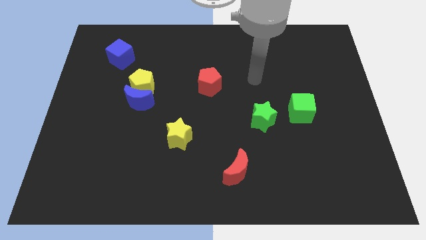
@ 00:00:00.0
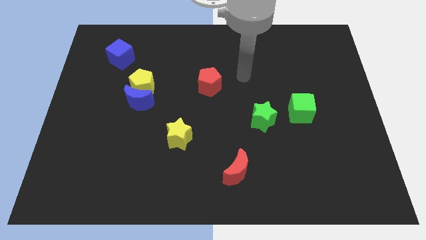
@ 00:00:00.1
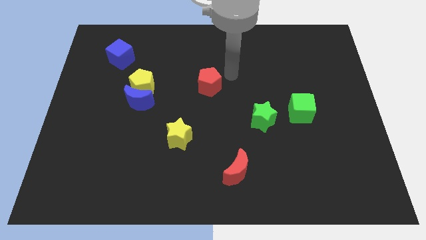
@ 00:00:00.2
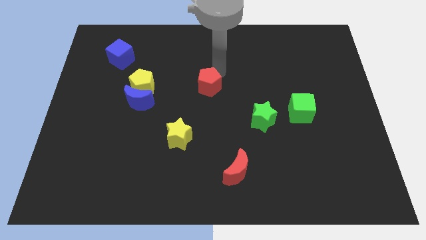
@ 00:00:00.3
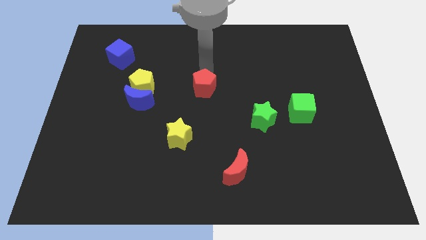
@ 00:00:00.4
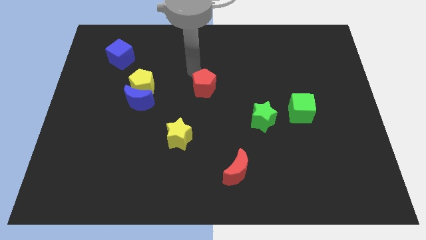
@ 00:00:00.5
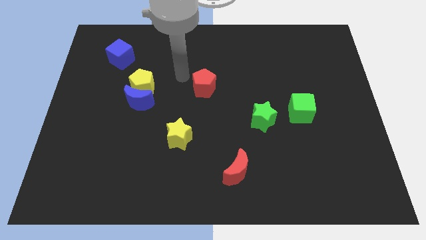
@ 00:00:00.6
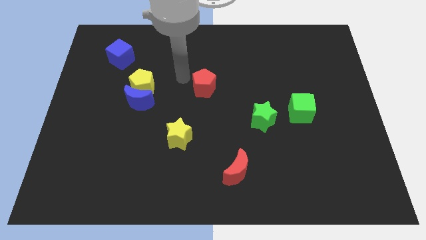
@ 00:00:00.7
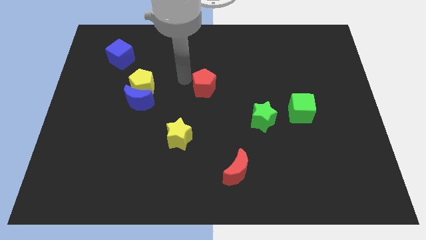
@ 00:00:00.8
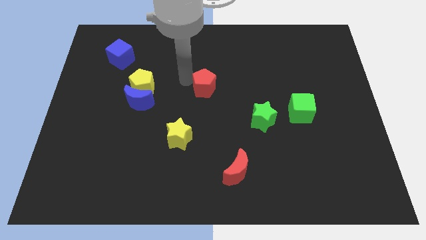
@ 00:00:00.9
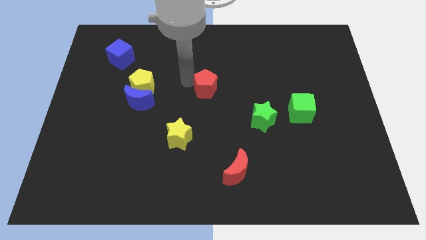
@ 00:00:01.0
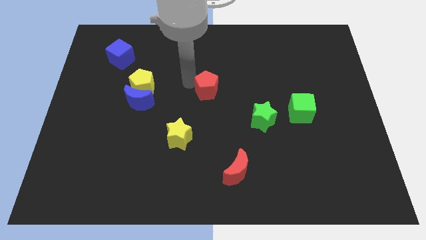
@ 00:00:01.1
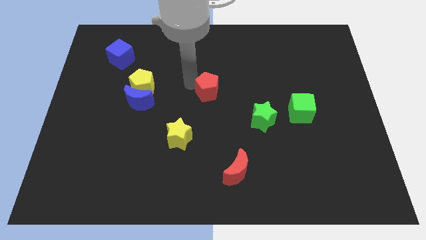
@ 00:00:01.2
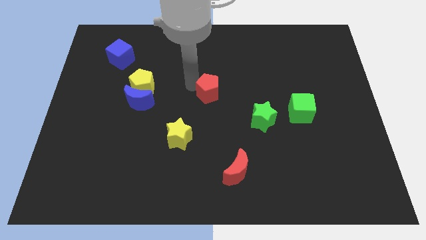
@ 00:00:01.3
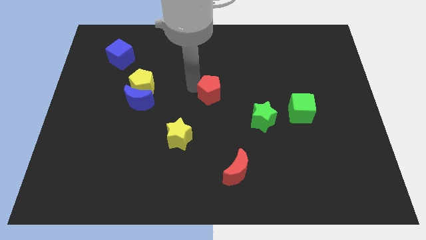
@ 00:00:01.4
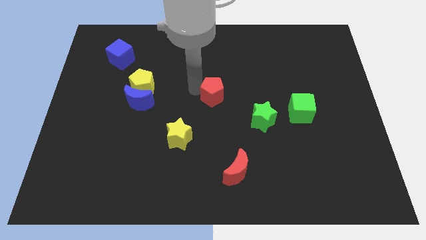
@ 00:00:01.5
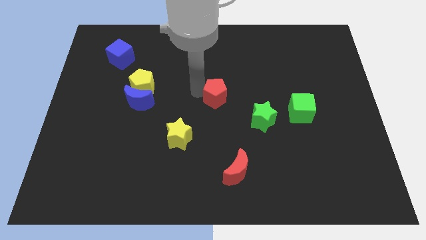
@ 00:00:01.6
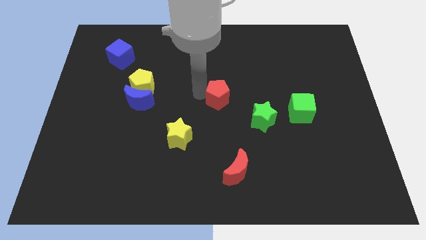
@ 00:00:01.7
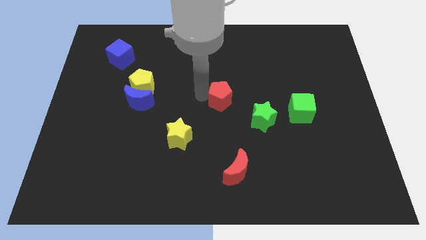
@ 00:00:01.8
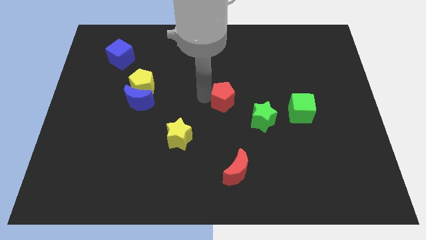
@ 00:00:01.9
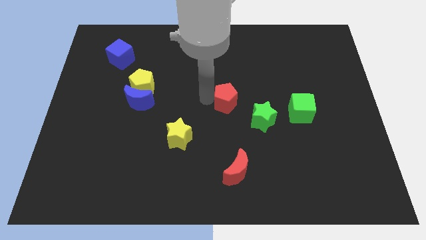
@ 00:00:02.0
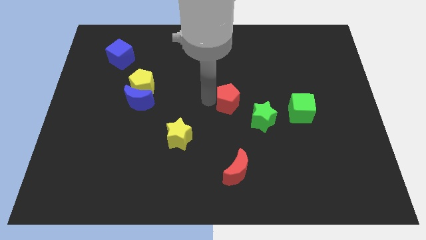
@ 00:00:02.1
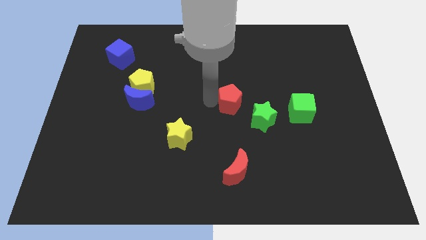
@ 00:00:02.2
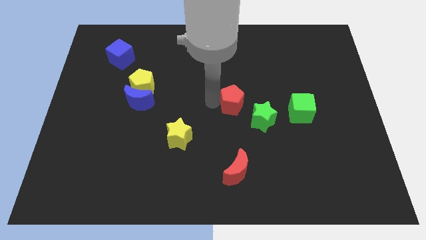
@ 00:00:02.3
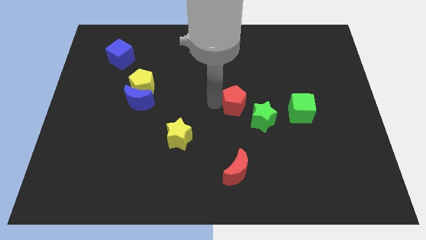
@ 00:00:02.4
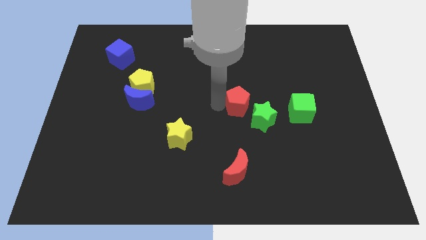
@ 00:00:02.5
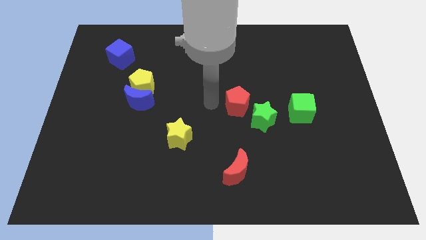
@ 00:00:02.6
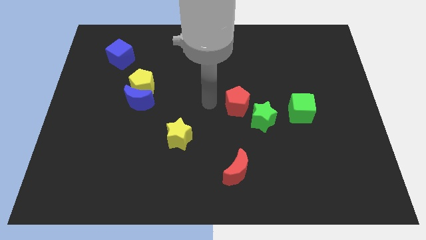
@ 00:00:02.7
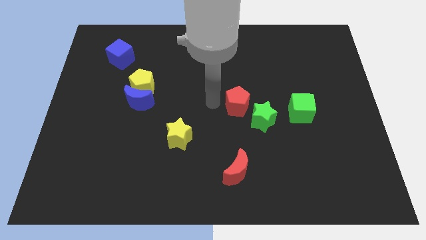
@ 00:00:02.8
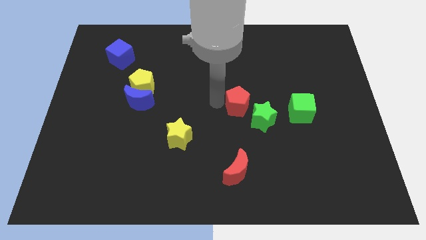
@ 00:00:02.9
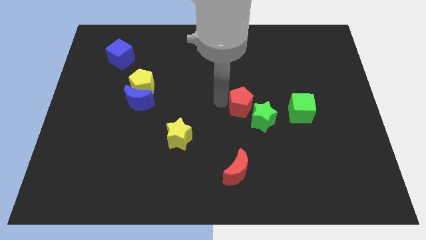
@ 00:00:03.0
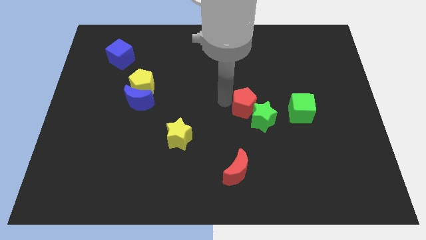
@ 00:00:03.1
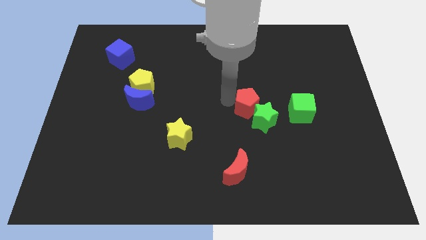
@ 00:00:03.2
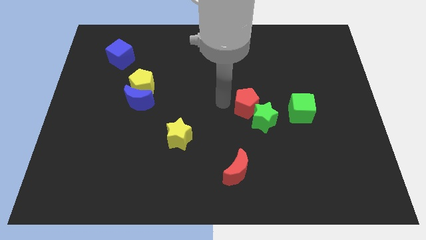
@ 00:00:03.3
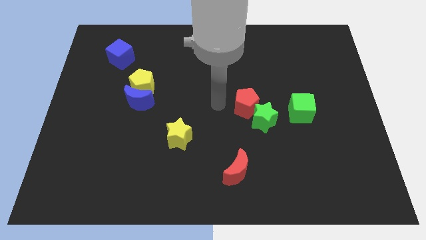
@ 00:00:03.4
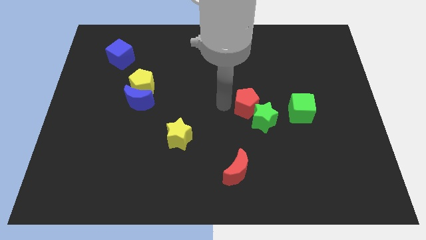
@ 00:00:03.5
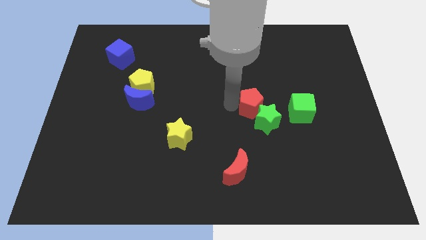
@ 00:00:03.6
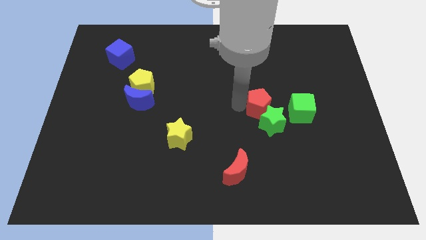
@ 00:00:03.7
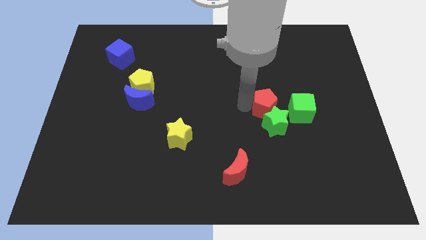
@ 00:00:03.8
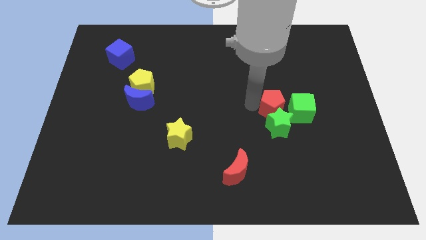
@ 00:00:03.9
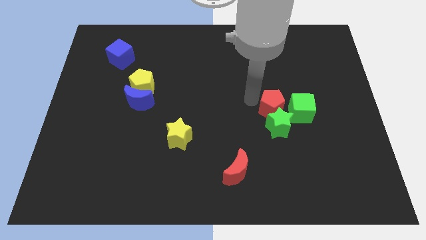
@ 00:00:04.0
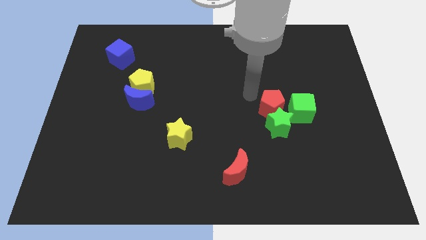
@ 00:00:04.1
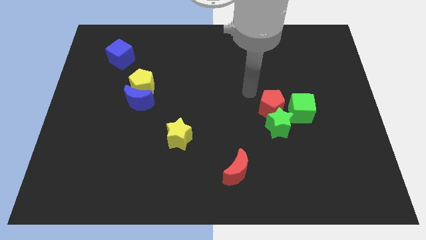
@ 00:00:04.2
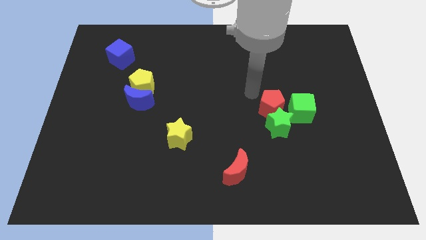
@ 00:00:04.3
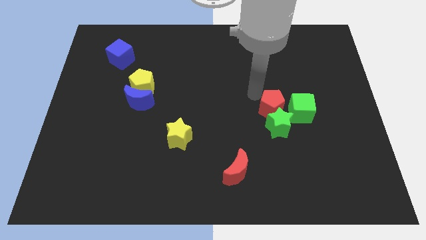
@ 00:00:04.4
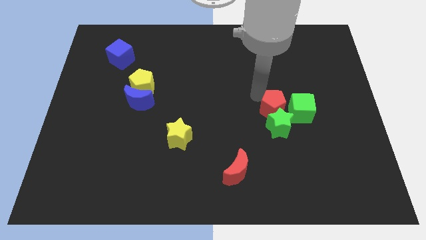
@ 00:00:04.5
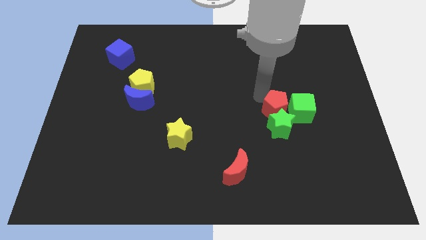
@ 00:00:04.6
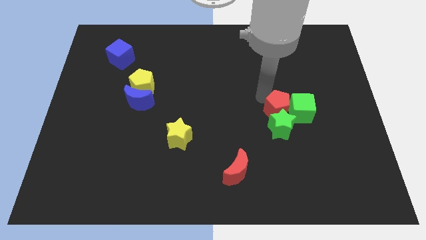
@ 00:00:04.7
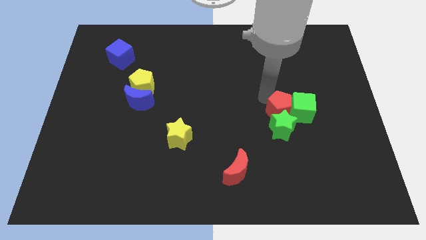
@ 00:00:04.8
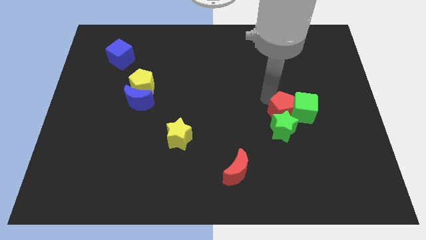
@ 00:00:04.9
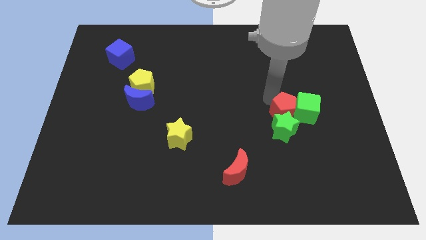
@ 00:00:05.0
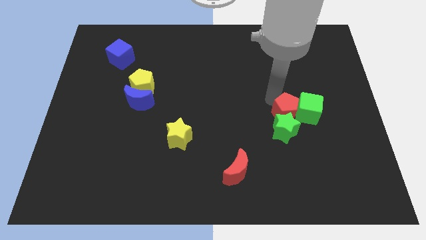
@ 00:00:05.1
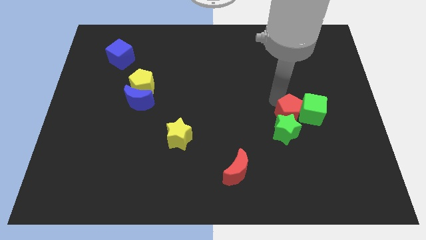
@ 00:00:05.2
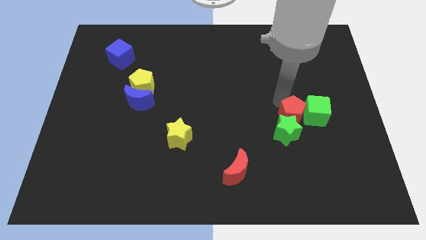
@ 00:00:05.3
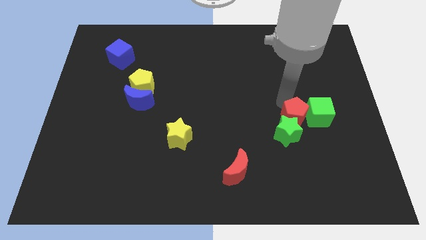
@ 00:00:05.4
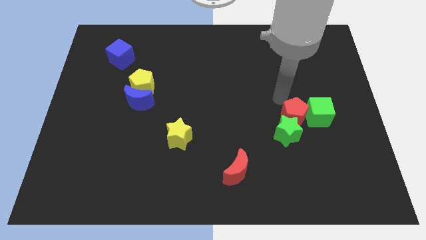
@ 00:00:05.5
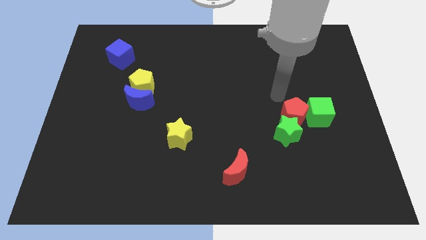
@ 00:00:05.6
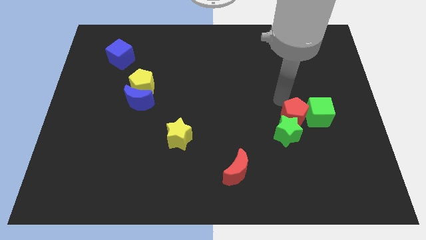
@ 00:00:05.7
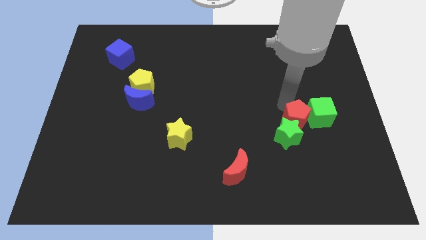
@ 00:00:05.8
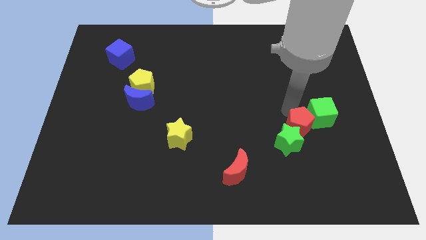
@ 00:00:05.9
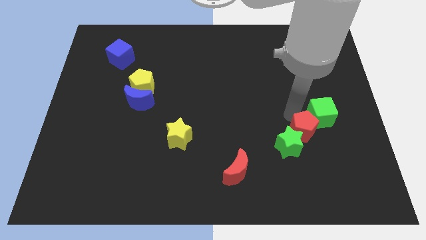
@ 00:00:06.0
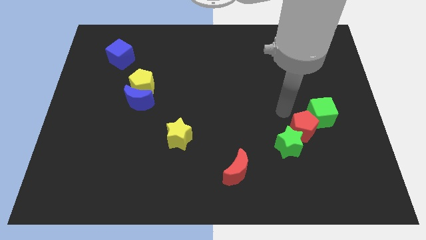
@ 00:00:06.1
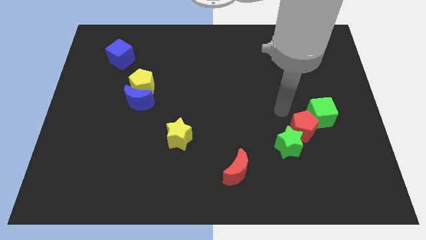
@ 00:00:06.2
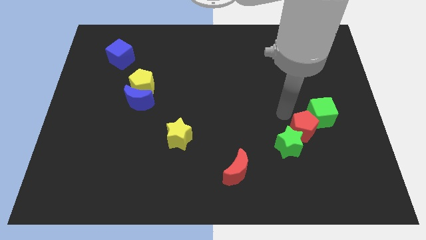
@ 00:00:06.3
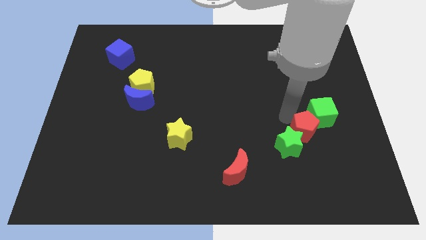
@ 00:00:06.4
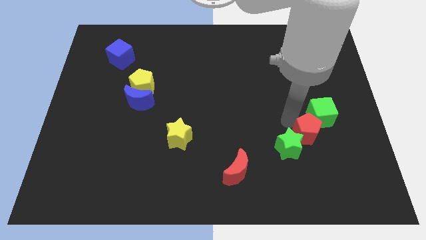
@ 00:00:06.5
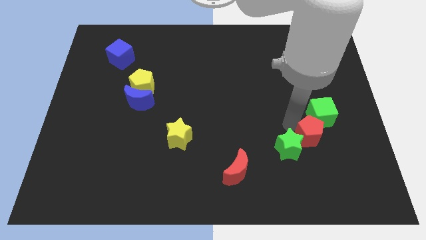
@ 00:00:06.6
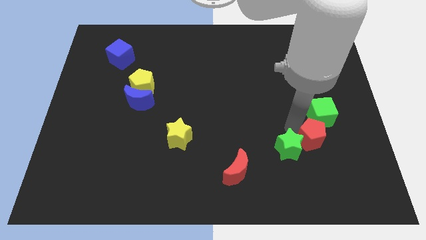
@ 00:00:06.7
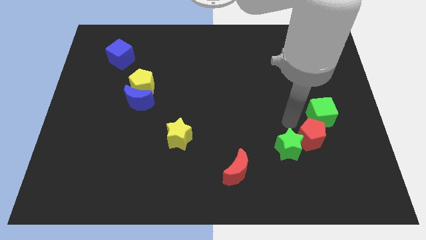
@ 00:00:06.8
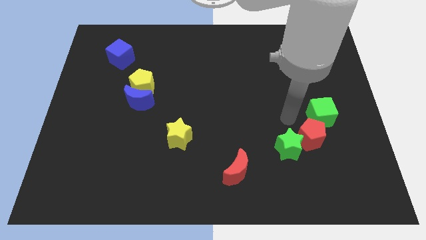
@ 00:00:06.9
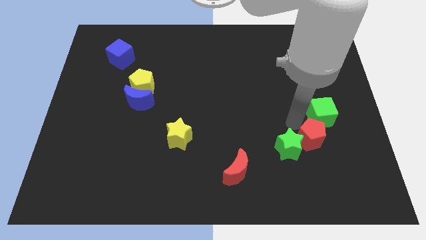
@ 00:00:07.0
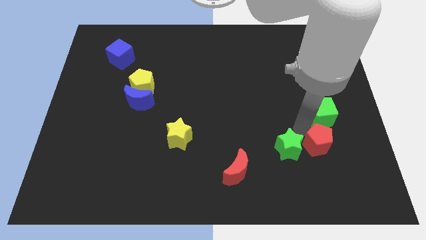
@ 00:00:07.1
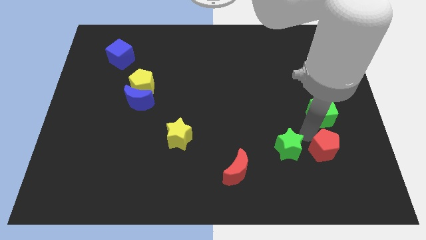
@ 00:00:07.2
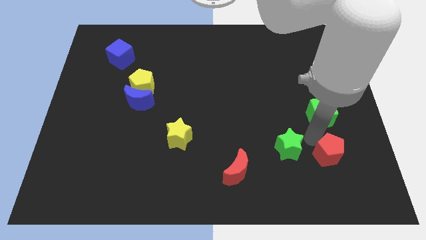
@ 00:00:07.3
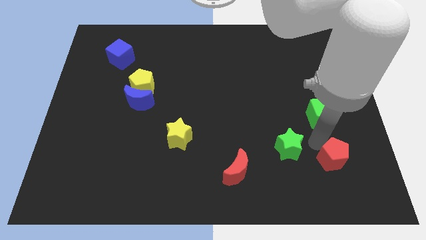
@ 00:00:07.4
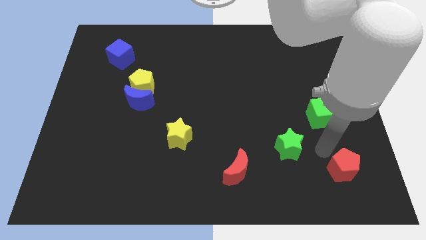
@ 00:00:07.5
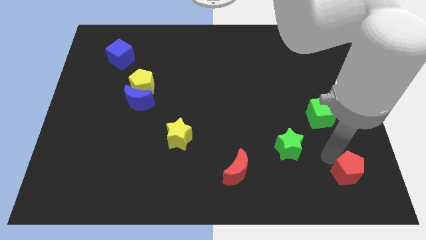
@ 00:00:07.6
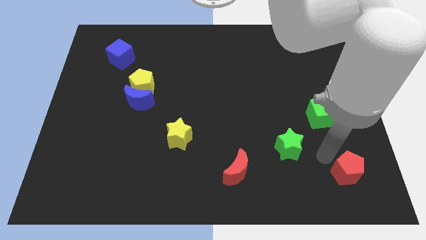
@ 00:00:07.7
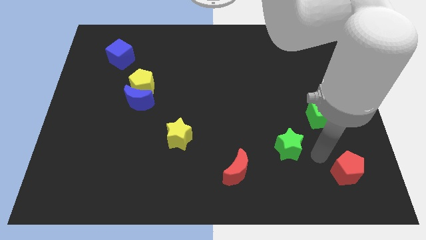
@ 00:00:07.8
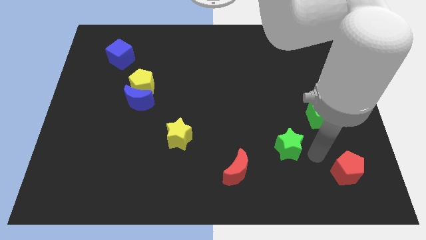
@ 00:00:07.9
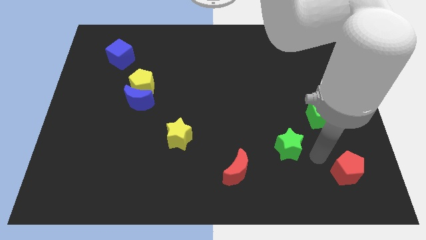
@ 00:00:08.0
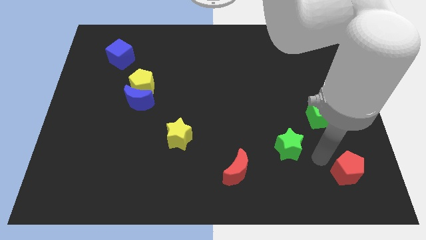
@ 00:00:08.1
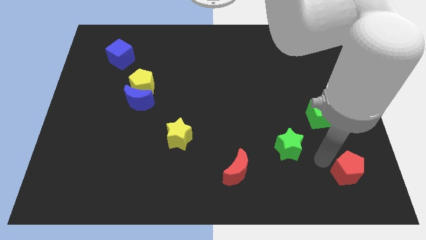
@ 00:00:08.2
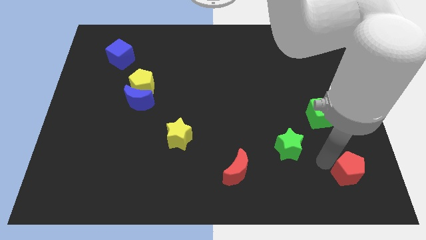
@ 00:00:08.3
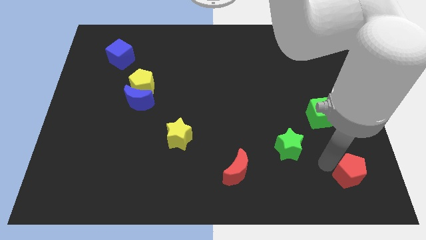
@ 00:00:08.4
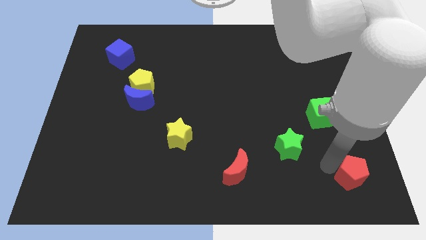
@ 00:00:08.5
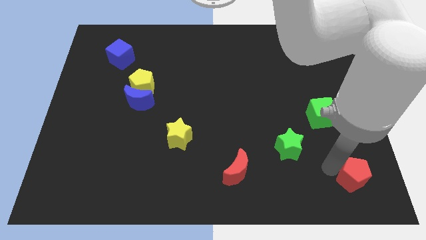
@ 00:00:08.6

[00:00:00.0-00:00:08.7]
put the red pentagon to the bottom right
